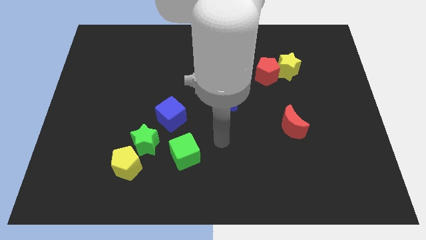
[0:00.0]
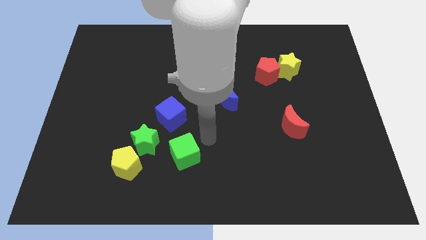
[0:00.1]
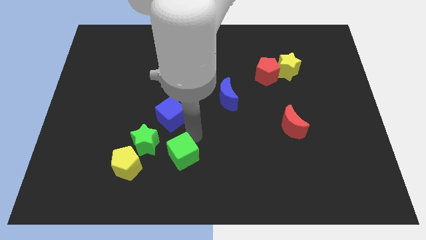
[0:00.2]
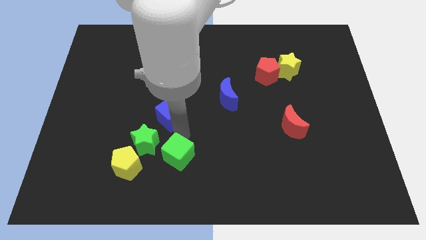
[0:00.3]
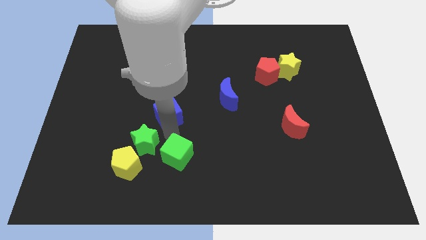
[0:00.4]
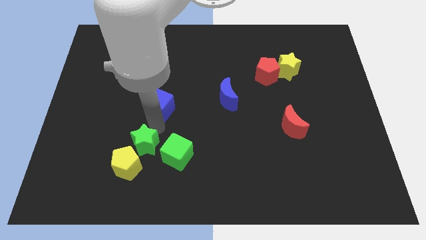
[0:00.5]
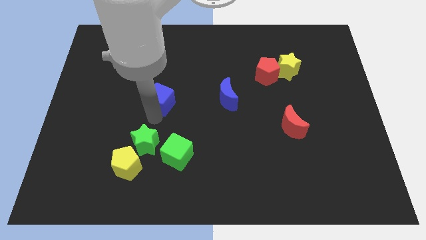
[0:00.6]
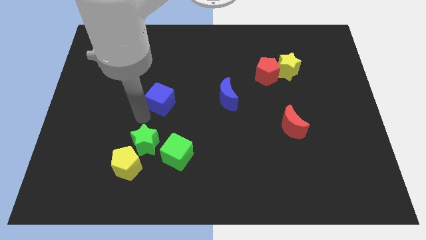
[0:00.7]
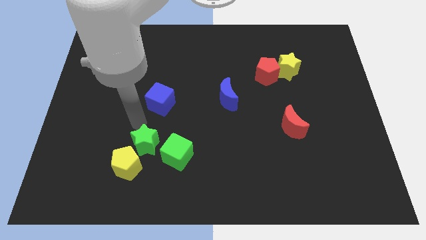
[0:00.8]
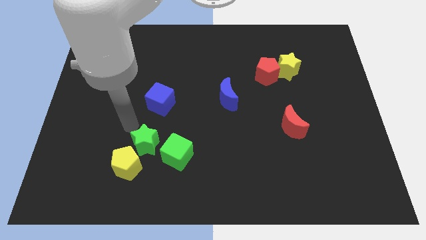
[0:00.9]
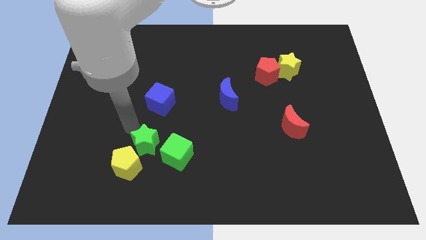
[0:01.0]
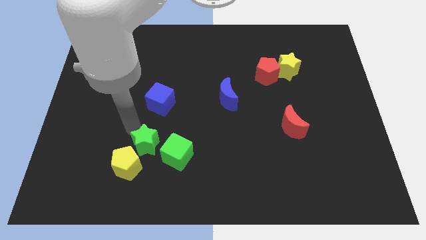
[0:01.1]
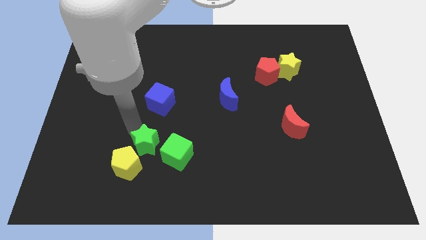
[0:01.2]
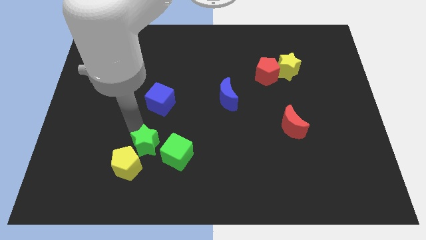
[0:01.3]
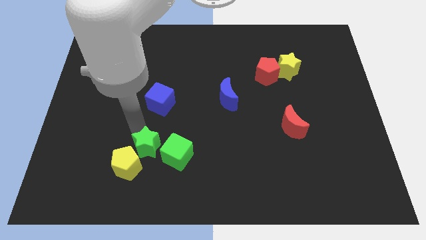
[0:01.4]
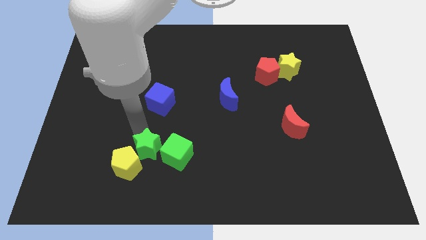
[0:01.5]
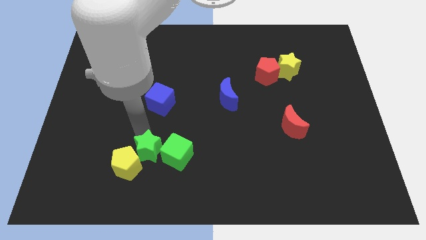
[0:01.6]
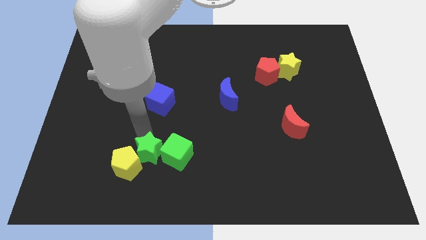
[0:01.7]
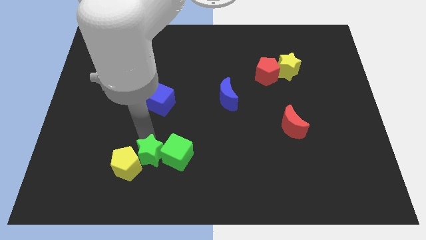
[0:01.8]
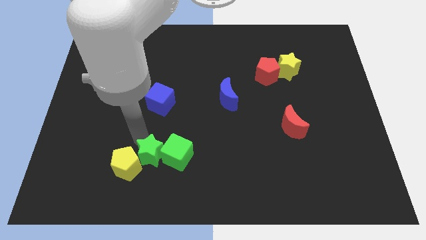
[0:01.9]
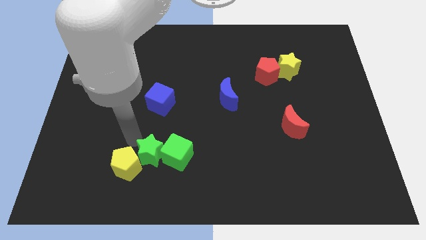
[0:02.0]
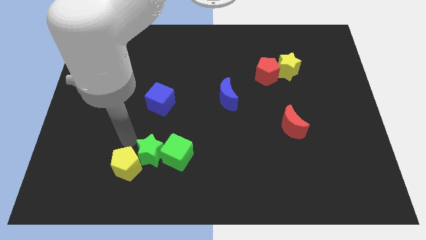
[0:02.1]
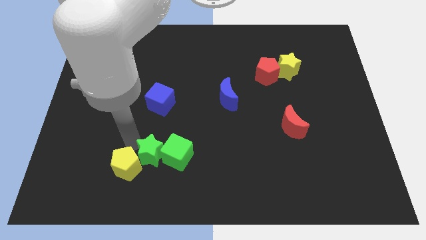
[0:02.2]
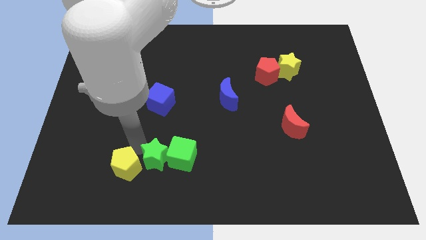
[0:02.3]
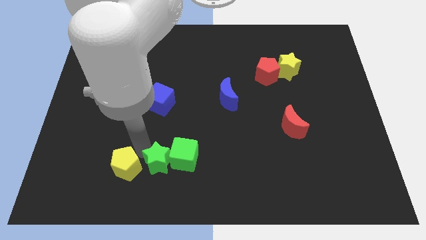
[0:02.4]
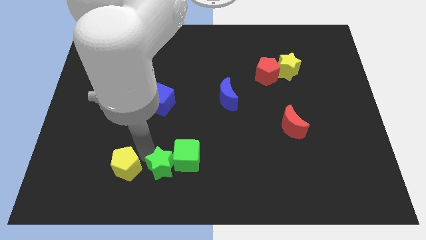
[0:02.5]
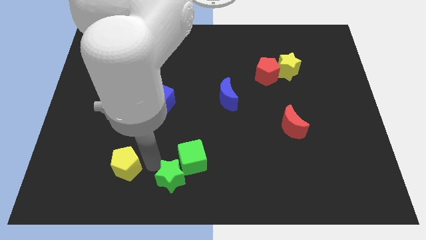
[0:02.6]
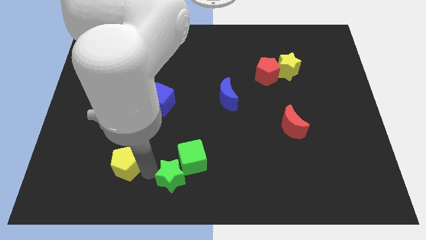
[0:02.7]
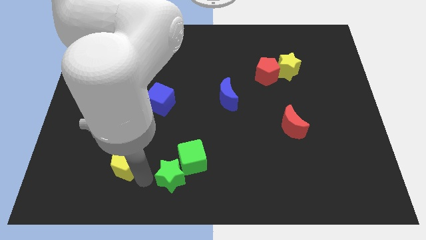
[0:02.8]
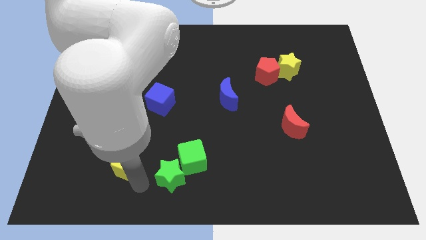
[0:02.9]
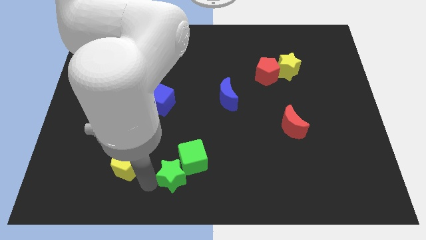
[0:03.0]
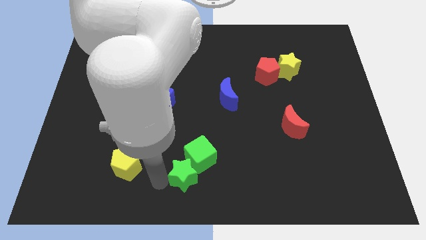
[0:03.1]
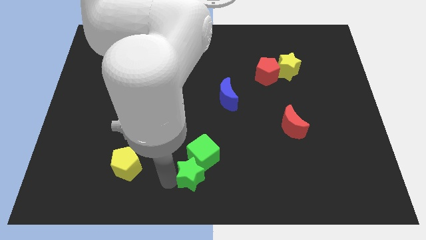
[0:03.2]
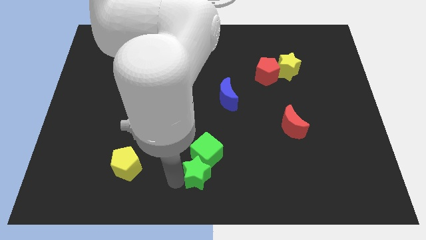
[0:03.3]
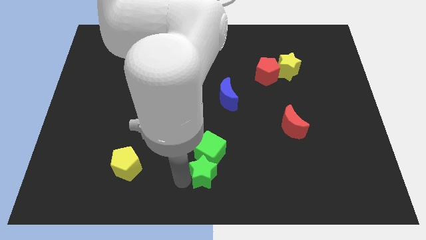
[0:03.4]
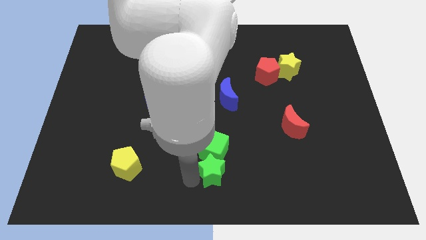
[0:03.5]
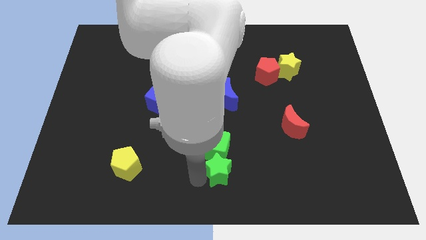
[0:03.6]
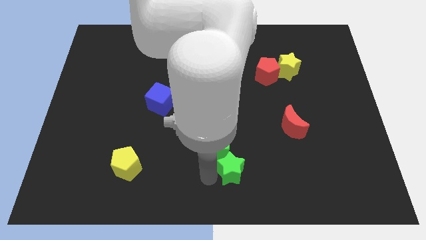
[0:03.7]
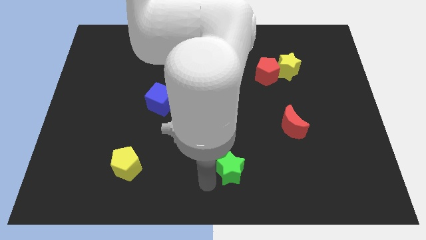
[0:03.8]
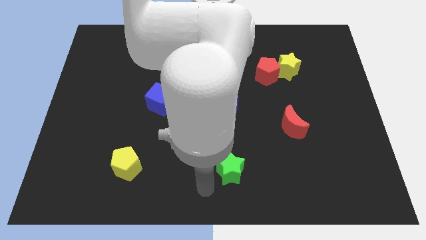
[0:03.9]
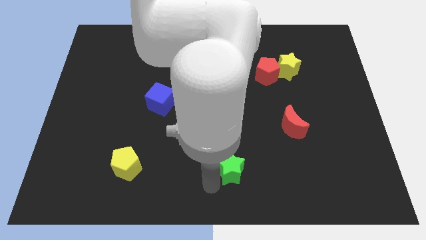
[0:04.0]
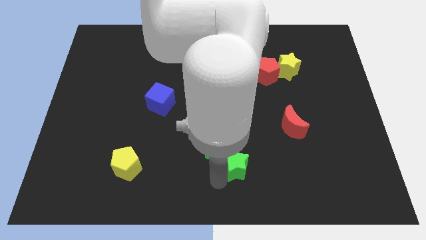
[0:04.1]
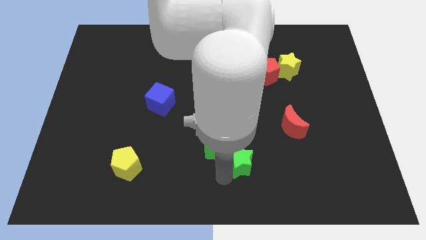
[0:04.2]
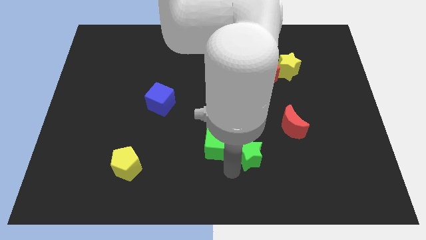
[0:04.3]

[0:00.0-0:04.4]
slide the green star to the right

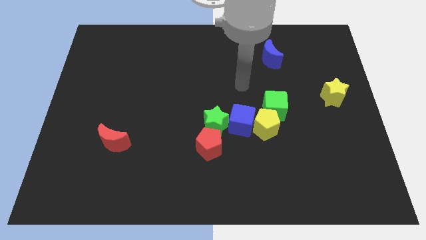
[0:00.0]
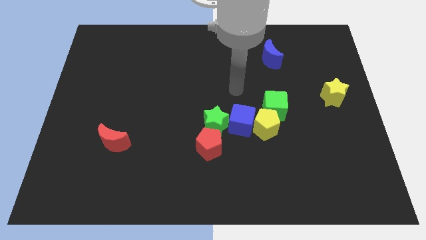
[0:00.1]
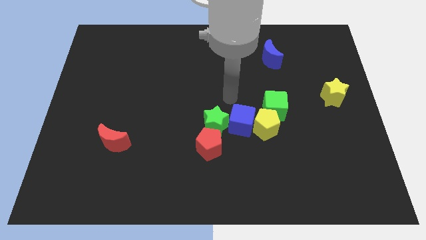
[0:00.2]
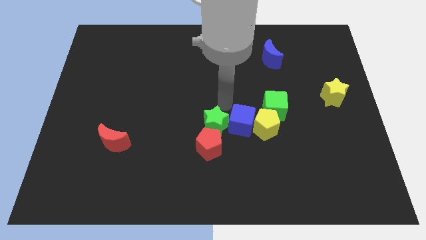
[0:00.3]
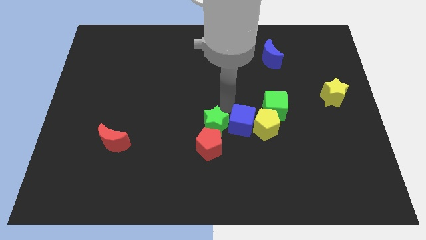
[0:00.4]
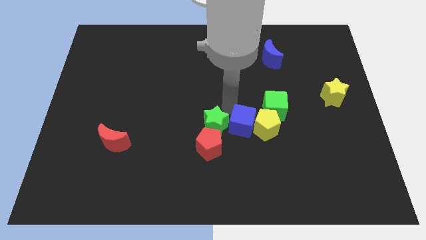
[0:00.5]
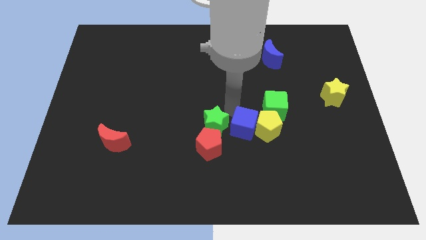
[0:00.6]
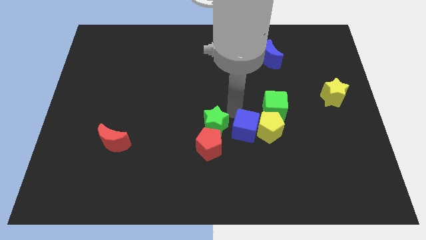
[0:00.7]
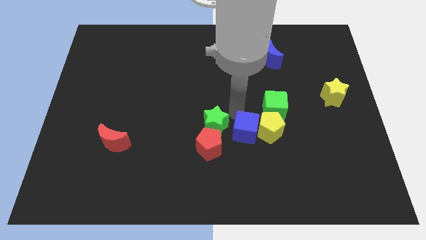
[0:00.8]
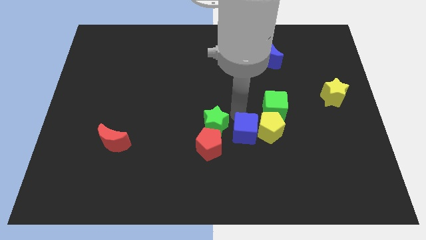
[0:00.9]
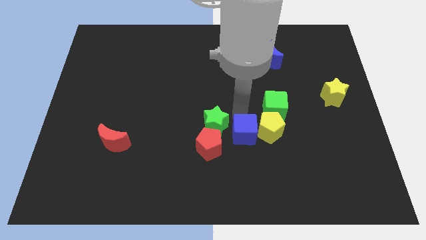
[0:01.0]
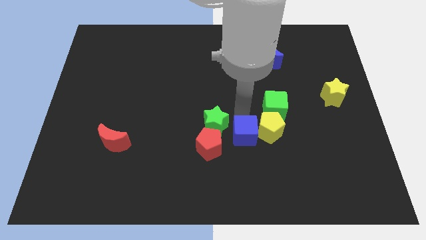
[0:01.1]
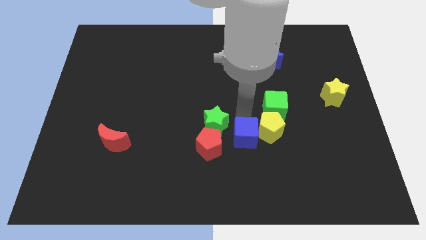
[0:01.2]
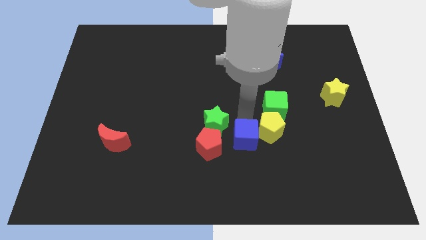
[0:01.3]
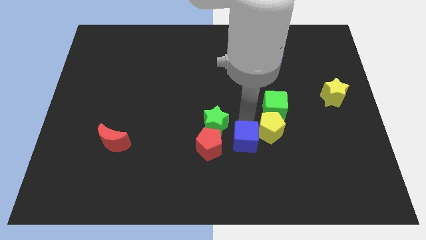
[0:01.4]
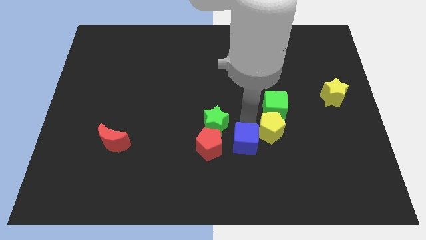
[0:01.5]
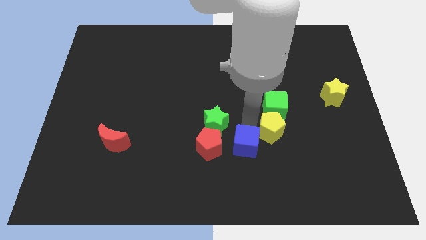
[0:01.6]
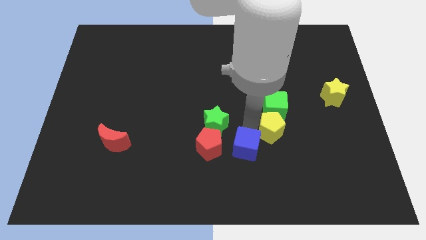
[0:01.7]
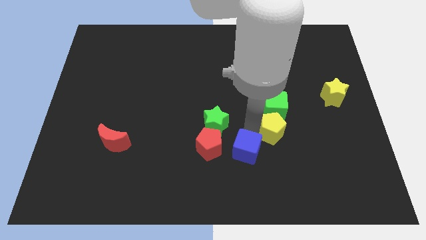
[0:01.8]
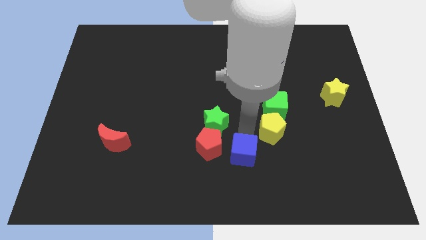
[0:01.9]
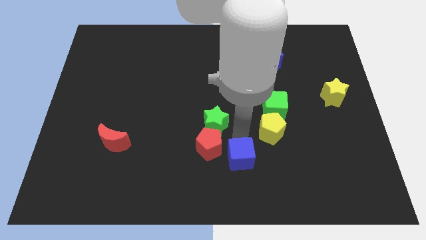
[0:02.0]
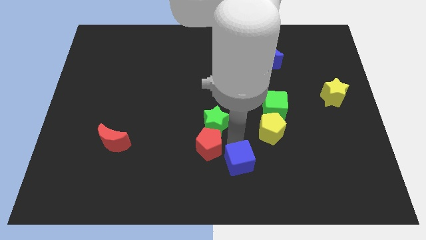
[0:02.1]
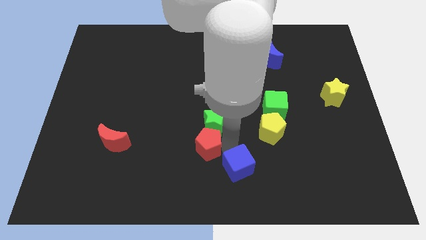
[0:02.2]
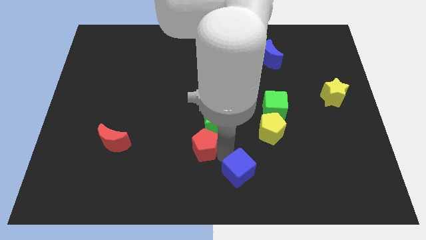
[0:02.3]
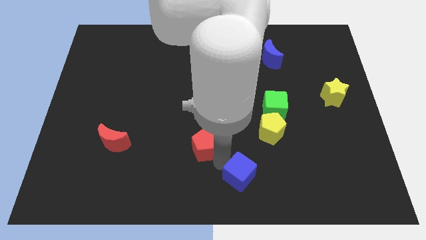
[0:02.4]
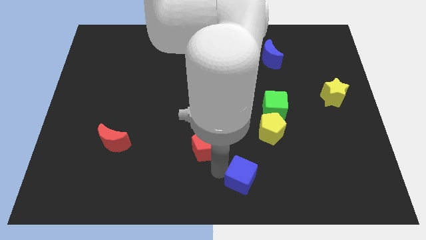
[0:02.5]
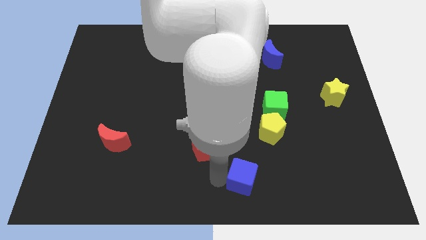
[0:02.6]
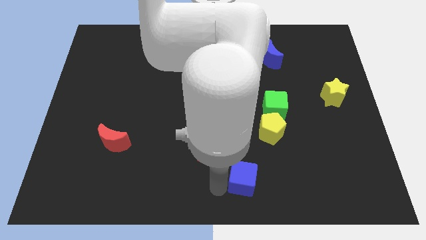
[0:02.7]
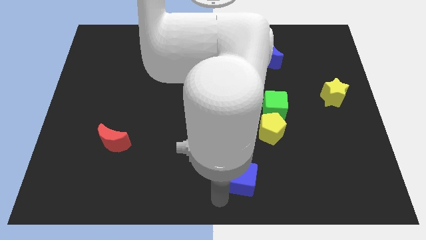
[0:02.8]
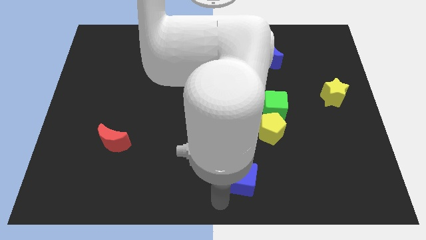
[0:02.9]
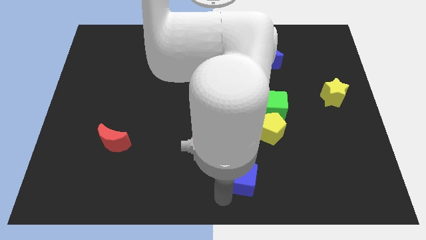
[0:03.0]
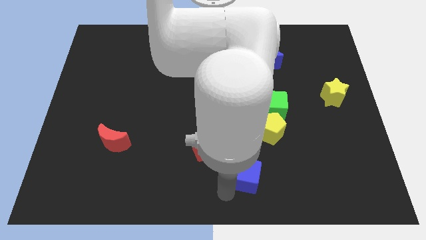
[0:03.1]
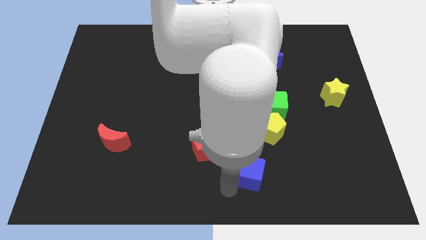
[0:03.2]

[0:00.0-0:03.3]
slightly slide the blue cube down and to the right
